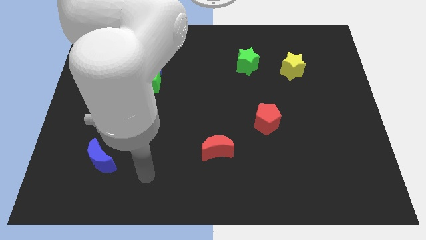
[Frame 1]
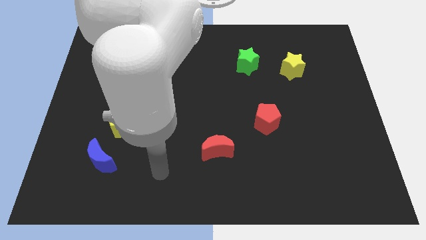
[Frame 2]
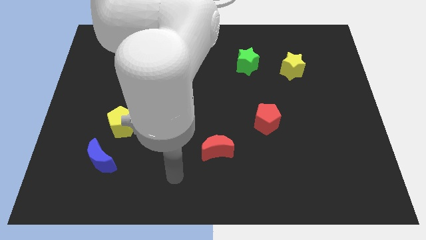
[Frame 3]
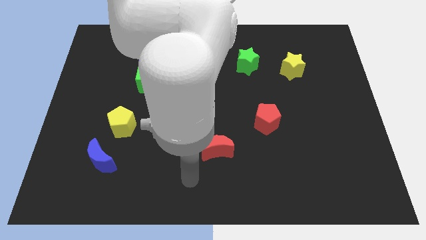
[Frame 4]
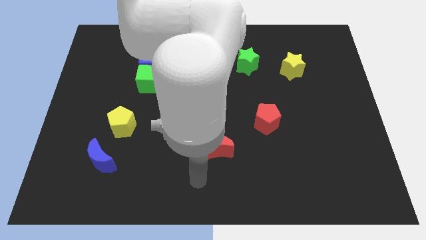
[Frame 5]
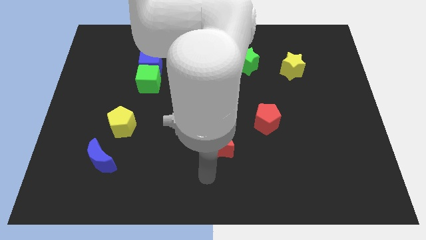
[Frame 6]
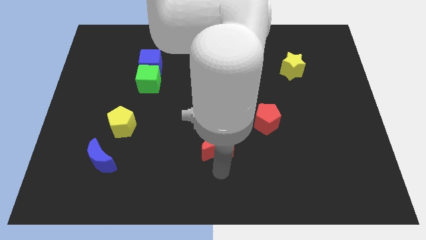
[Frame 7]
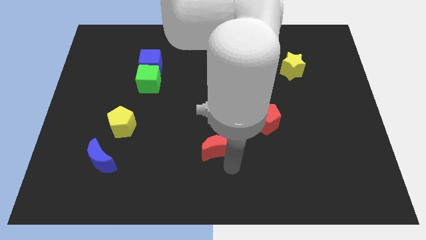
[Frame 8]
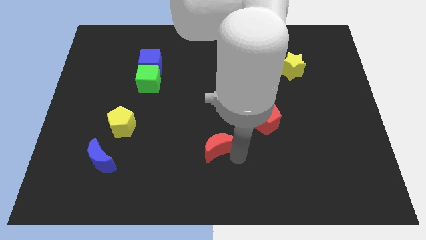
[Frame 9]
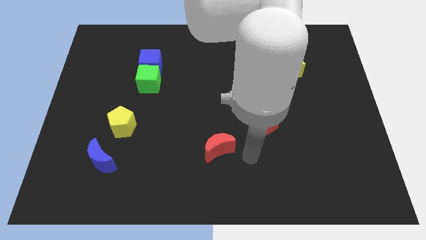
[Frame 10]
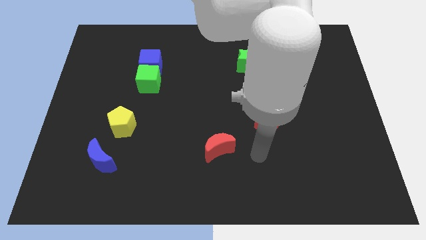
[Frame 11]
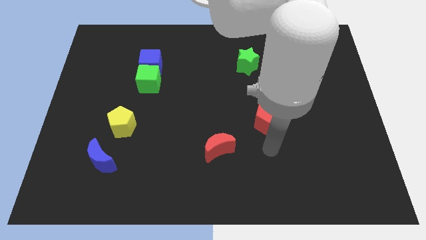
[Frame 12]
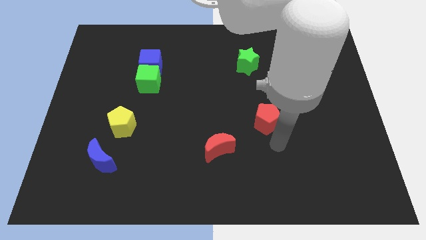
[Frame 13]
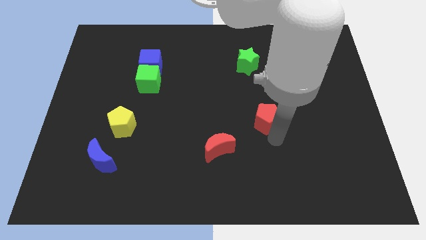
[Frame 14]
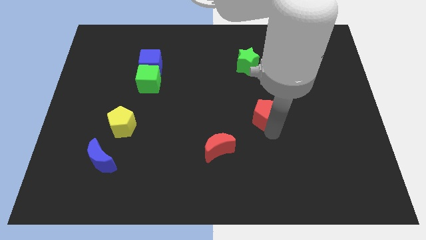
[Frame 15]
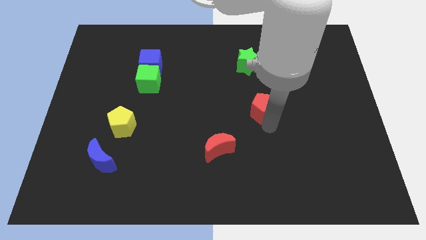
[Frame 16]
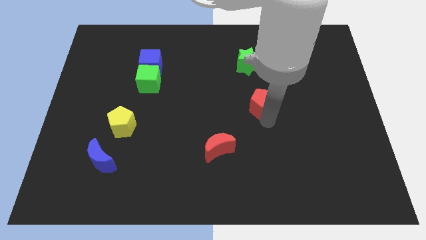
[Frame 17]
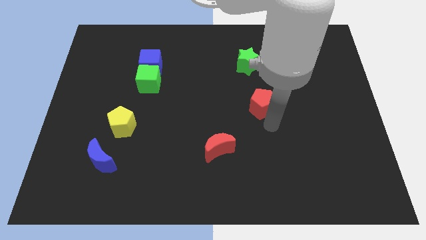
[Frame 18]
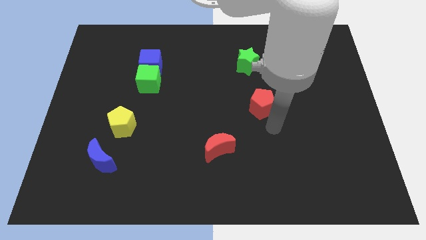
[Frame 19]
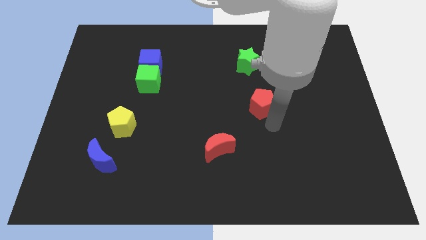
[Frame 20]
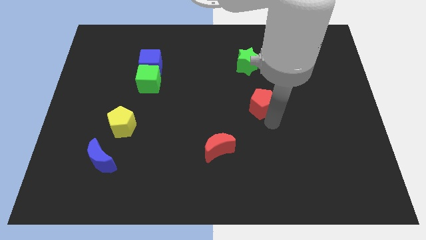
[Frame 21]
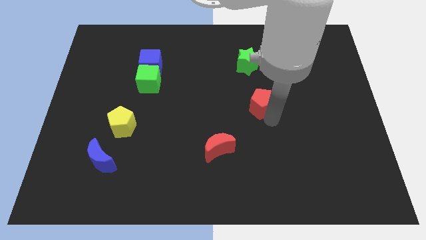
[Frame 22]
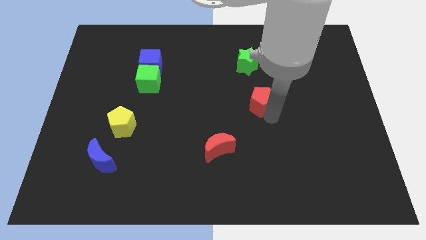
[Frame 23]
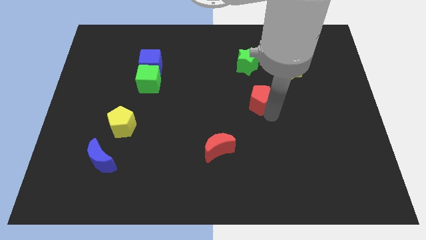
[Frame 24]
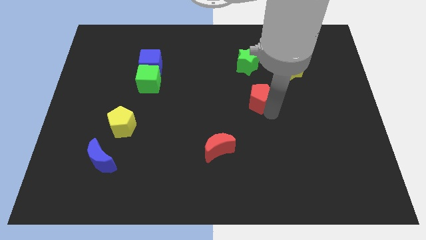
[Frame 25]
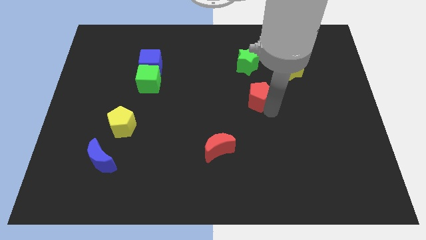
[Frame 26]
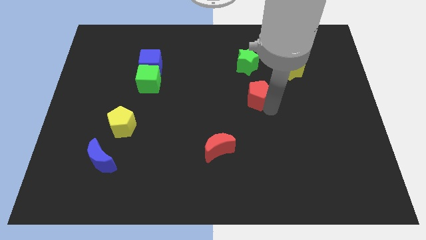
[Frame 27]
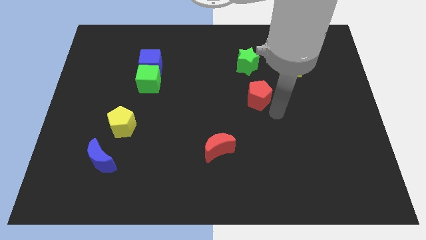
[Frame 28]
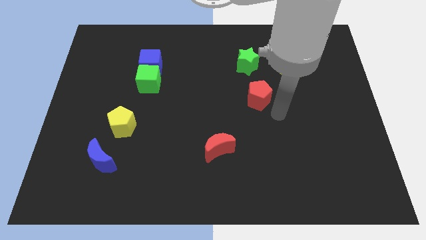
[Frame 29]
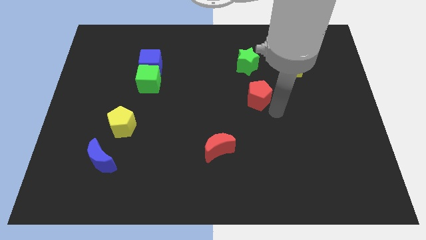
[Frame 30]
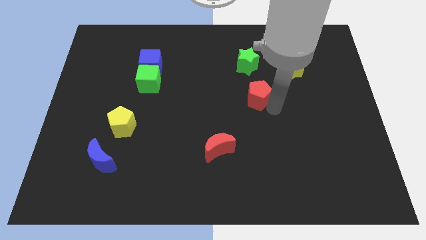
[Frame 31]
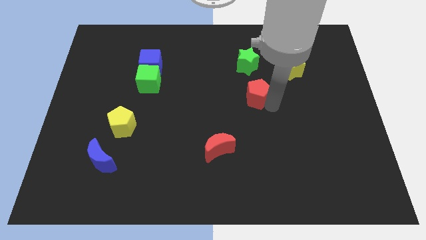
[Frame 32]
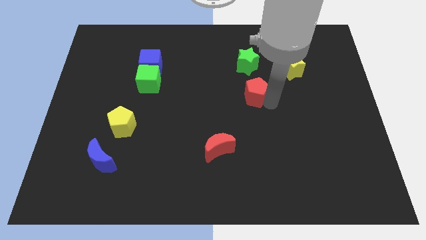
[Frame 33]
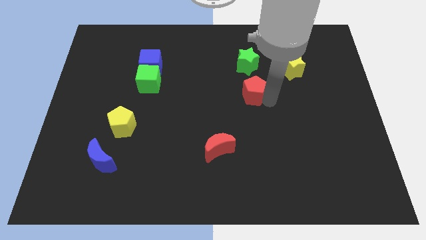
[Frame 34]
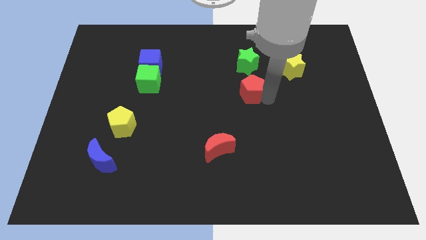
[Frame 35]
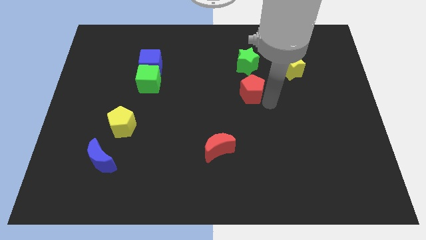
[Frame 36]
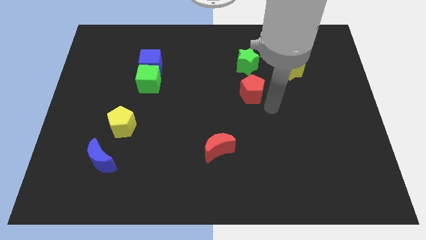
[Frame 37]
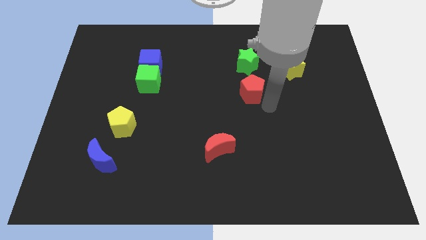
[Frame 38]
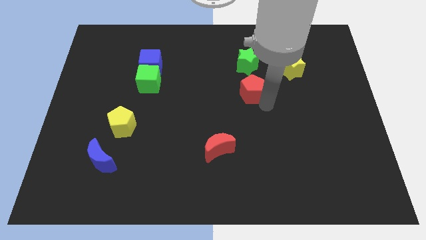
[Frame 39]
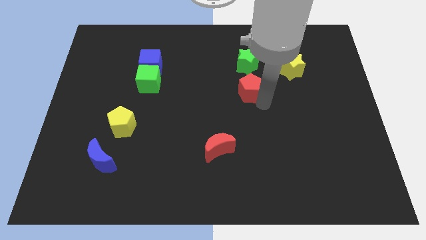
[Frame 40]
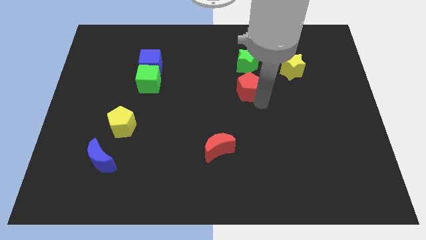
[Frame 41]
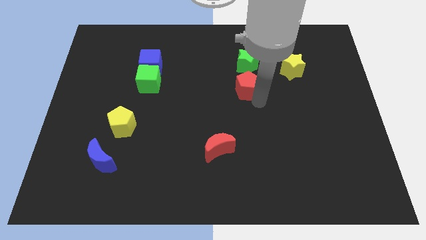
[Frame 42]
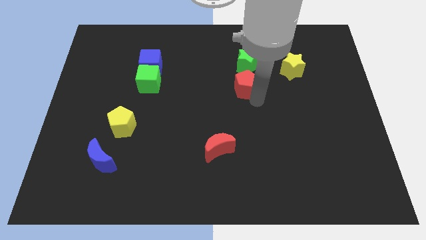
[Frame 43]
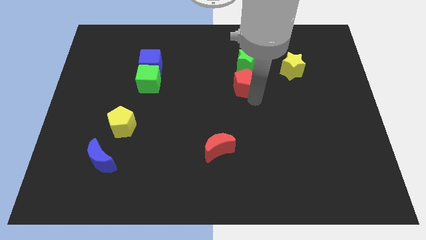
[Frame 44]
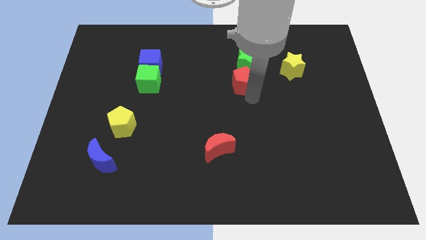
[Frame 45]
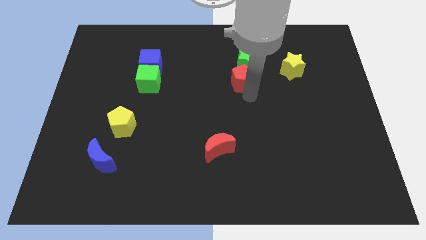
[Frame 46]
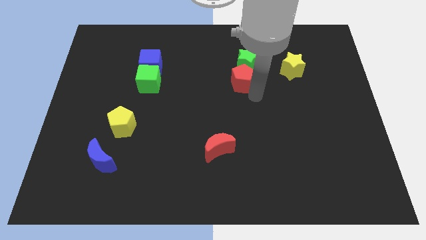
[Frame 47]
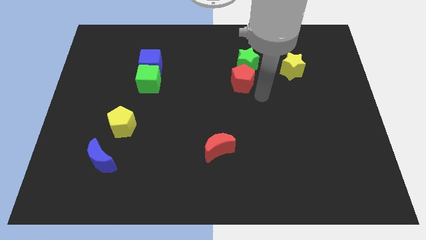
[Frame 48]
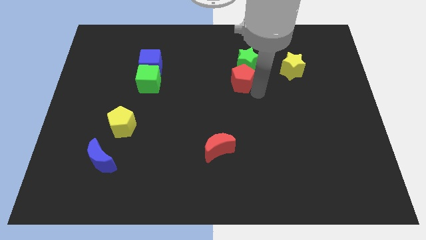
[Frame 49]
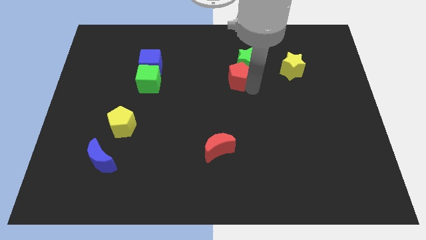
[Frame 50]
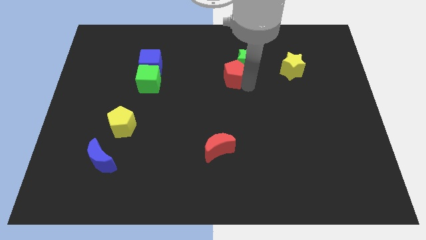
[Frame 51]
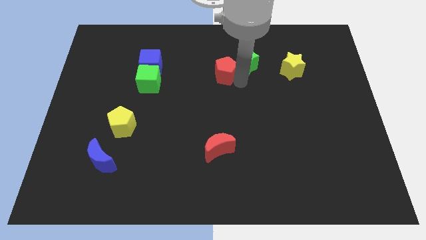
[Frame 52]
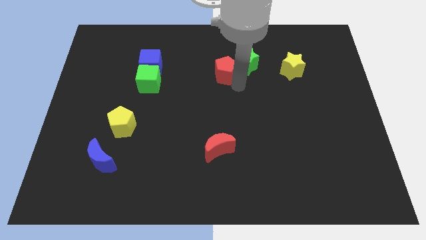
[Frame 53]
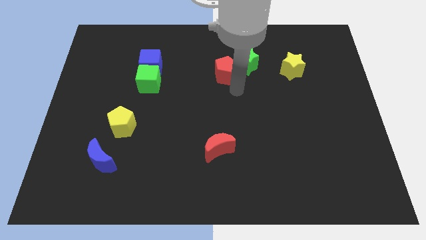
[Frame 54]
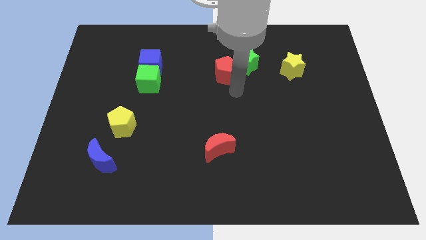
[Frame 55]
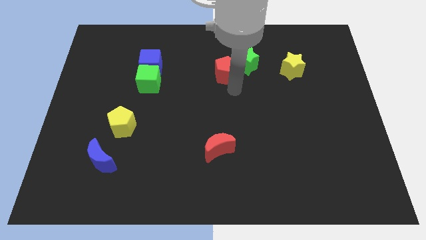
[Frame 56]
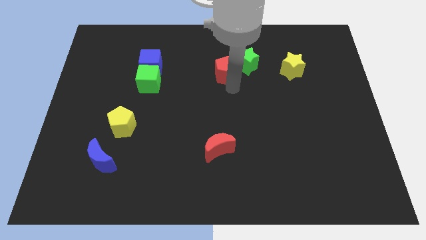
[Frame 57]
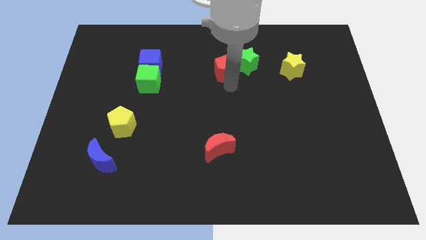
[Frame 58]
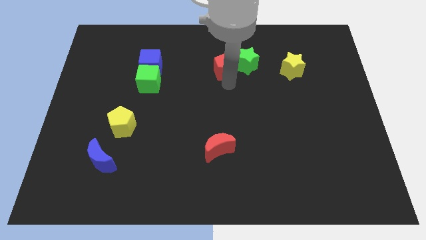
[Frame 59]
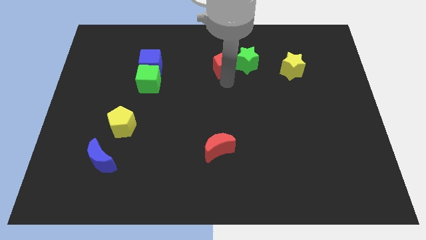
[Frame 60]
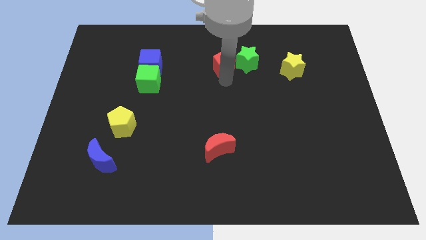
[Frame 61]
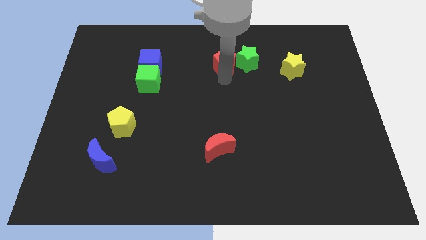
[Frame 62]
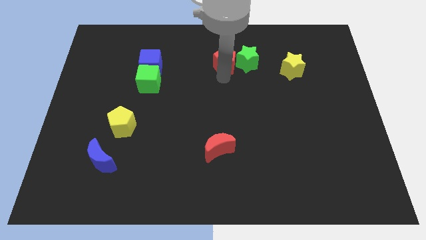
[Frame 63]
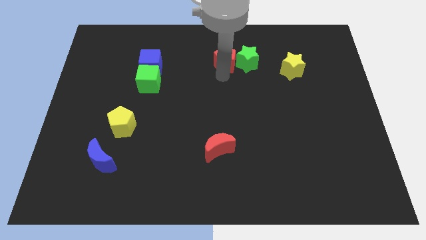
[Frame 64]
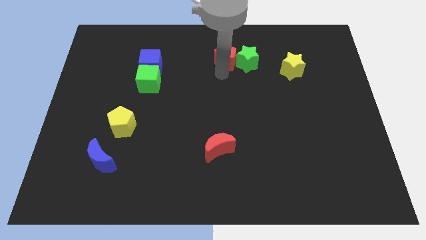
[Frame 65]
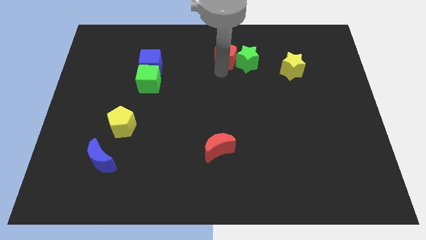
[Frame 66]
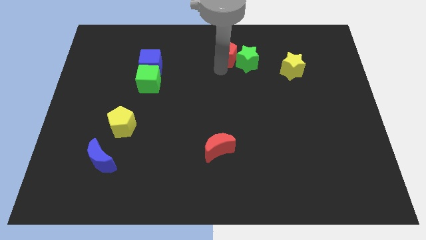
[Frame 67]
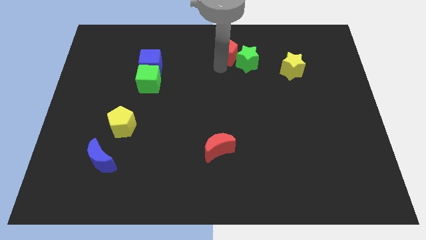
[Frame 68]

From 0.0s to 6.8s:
push the red pentagon to the top
